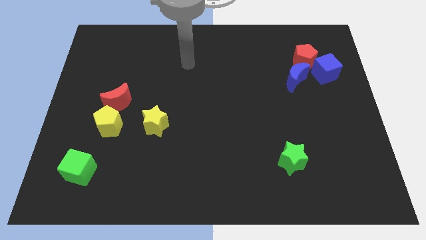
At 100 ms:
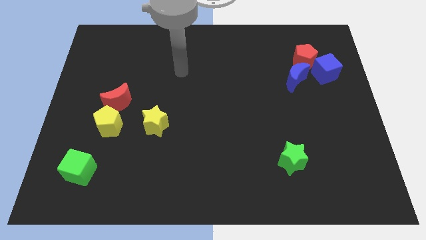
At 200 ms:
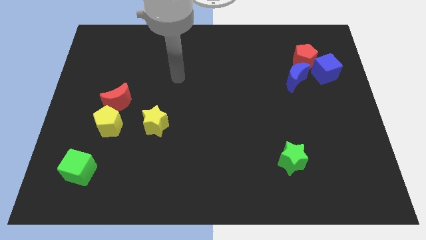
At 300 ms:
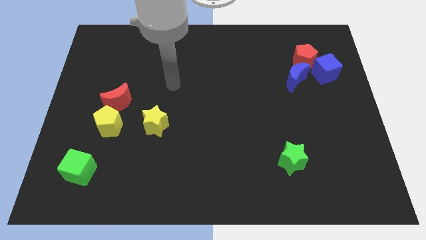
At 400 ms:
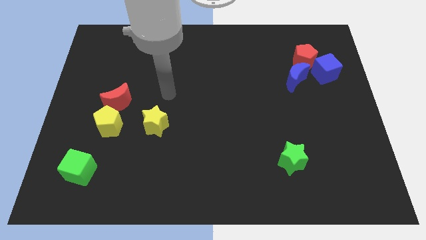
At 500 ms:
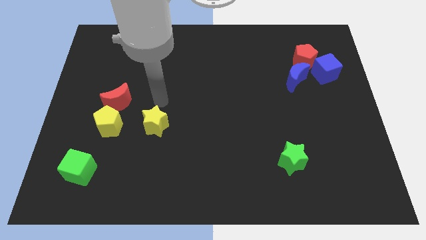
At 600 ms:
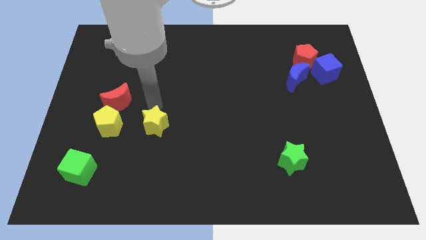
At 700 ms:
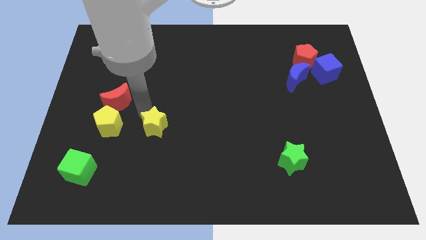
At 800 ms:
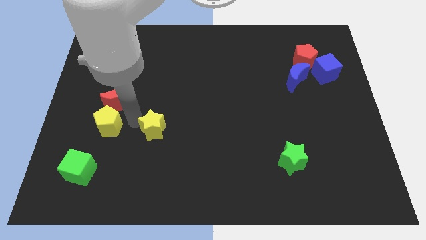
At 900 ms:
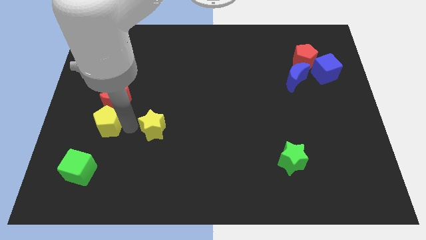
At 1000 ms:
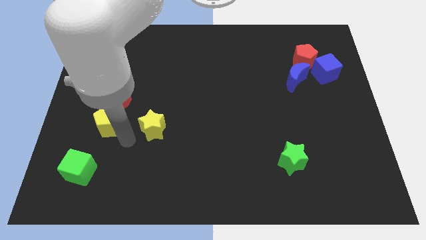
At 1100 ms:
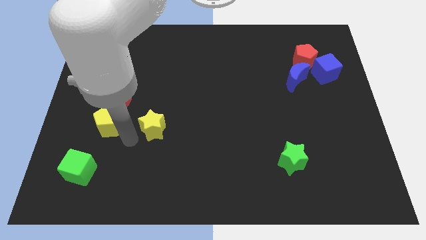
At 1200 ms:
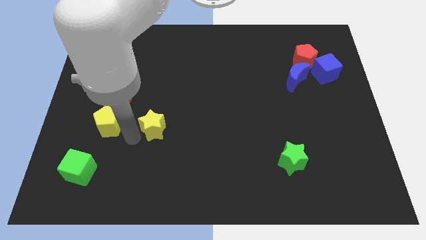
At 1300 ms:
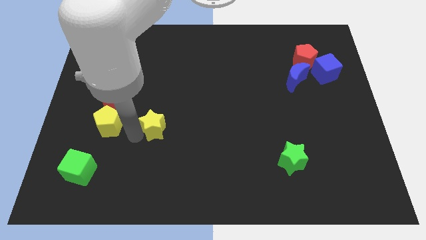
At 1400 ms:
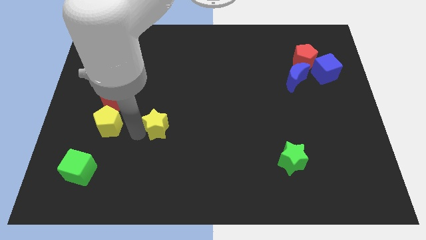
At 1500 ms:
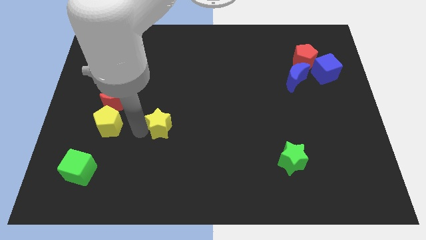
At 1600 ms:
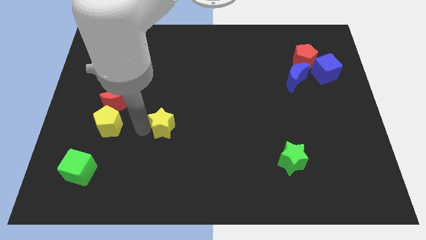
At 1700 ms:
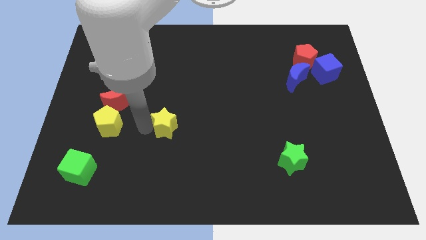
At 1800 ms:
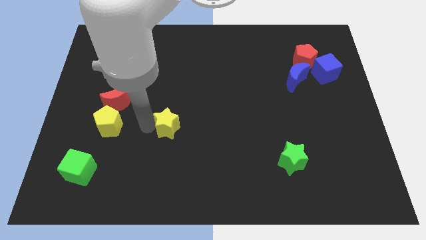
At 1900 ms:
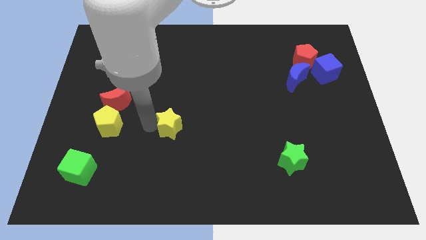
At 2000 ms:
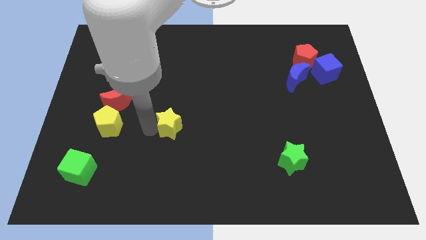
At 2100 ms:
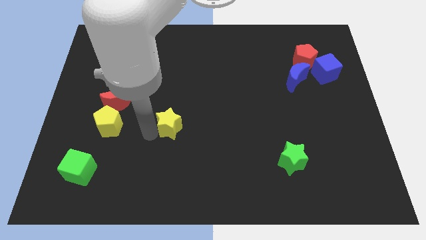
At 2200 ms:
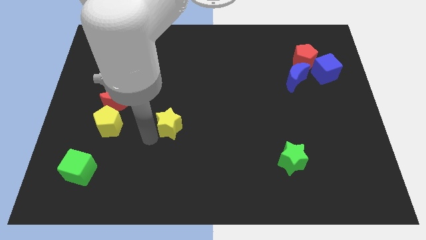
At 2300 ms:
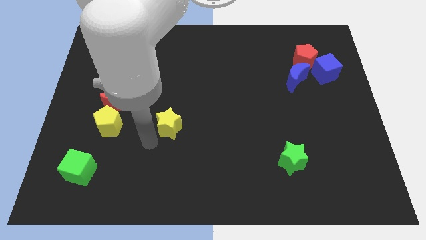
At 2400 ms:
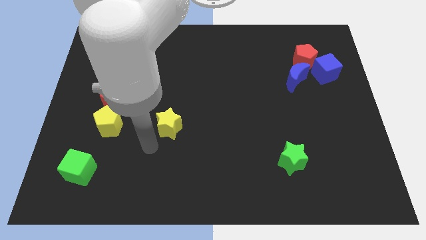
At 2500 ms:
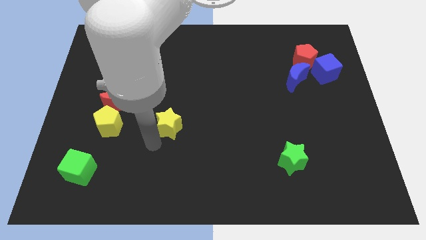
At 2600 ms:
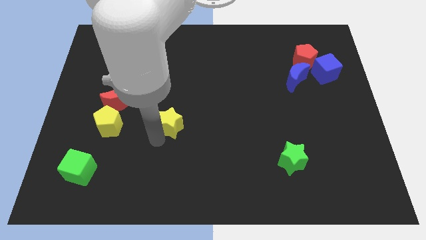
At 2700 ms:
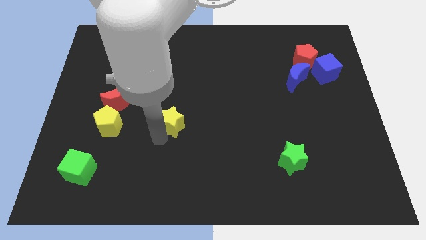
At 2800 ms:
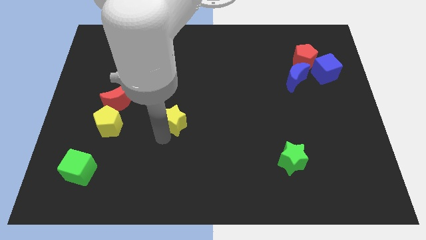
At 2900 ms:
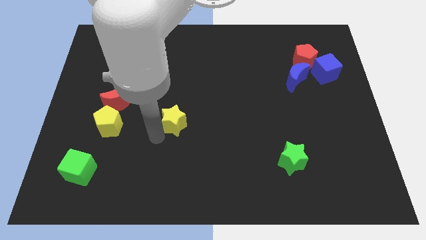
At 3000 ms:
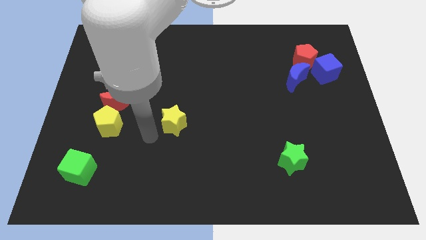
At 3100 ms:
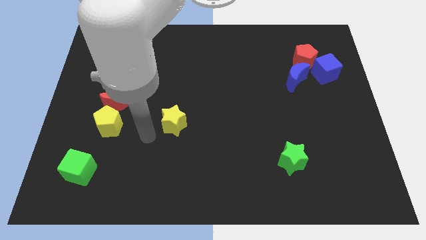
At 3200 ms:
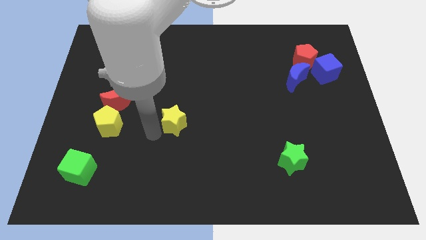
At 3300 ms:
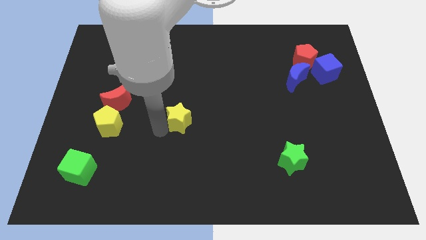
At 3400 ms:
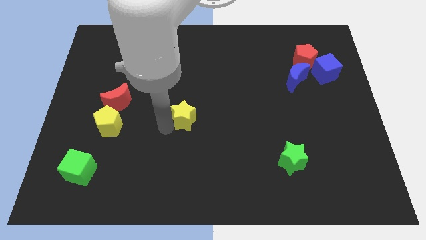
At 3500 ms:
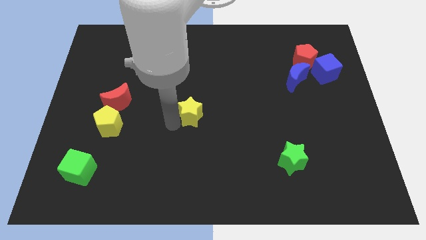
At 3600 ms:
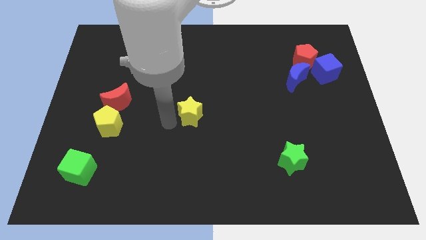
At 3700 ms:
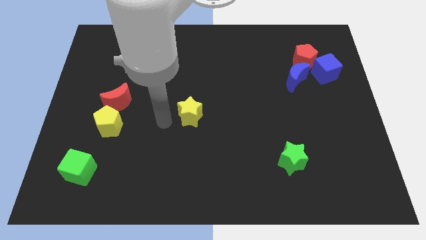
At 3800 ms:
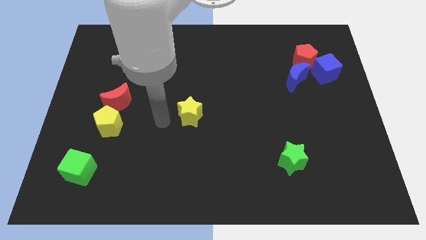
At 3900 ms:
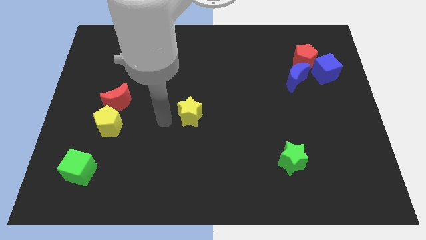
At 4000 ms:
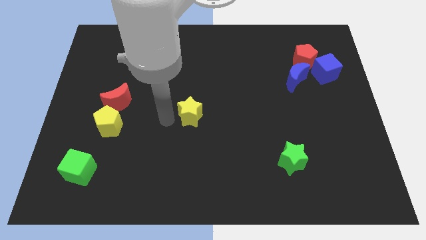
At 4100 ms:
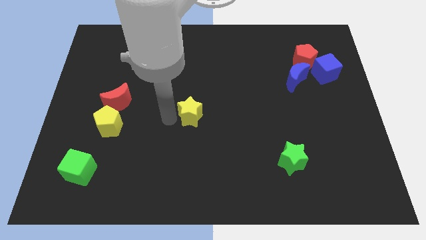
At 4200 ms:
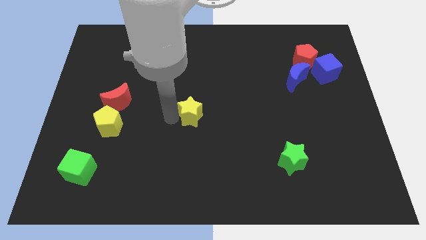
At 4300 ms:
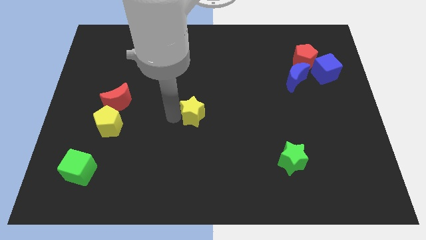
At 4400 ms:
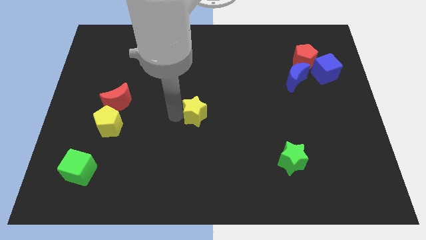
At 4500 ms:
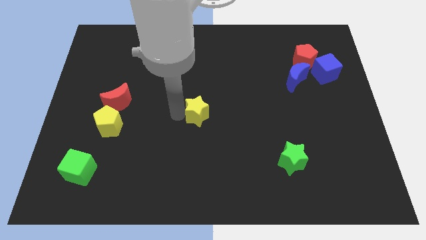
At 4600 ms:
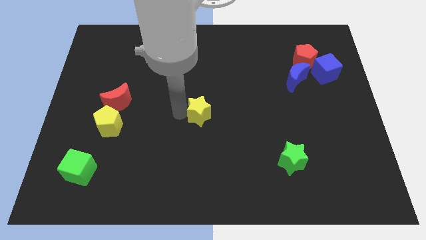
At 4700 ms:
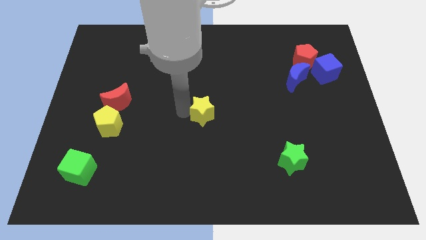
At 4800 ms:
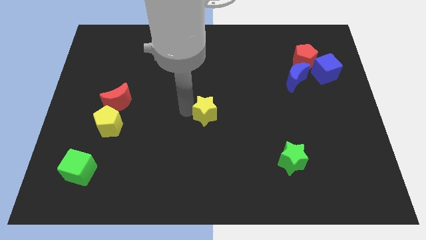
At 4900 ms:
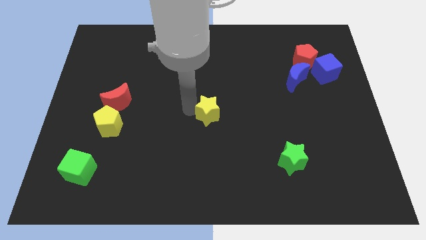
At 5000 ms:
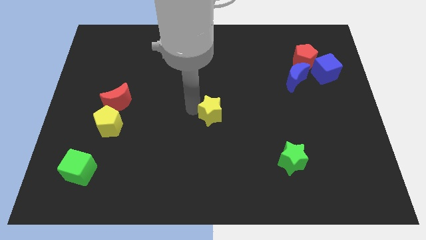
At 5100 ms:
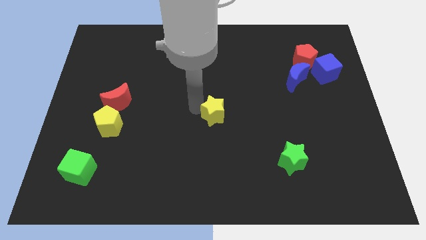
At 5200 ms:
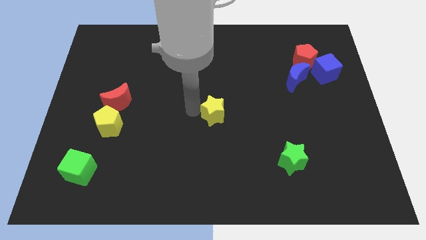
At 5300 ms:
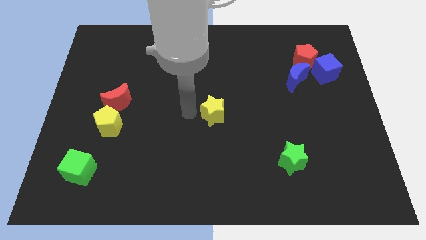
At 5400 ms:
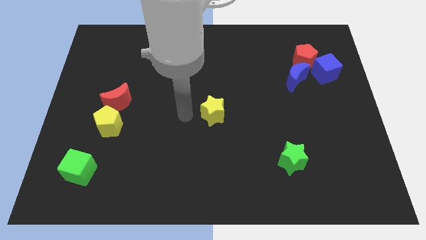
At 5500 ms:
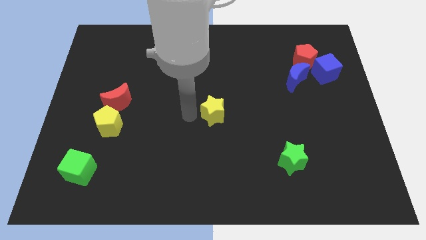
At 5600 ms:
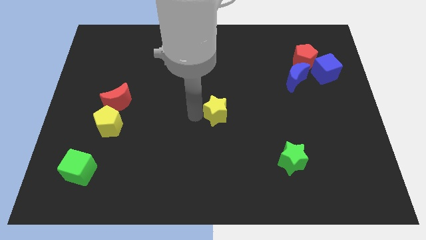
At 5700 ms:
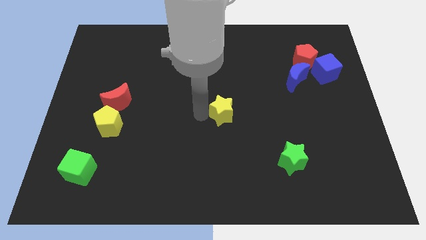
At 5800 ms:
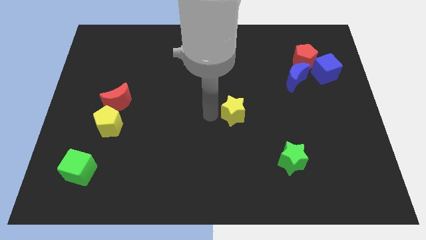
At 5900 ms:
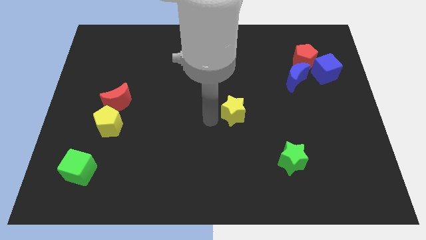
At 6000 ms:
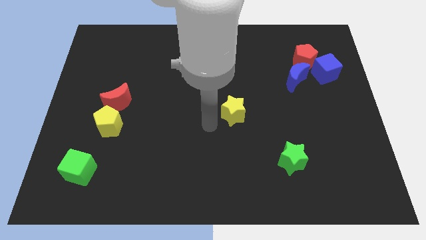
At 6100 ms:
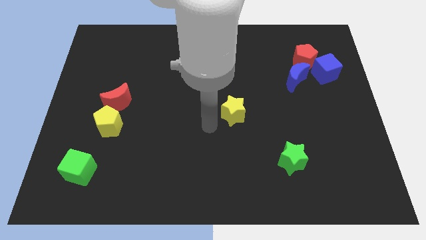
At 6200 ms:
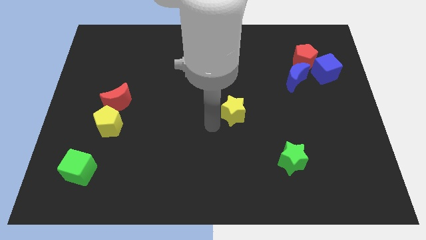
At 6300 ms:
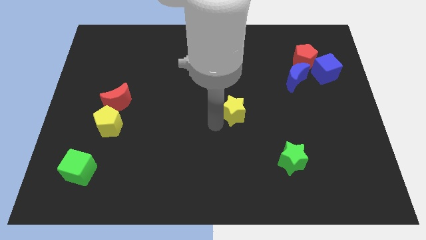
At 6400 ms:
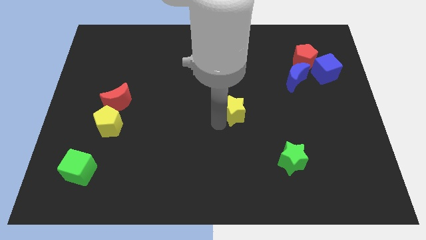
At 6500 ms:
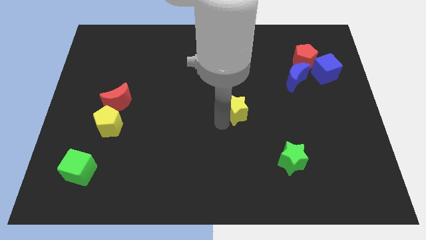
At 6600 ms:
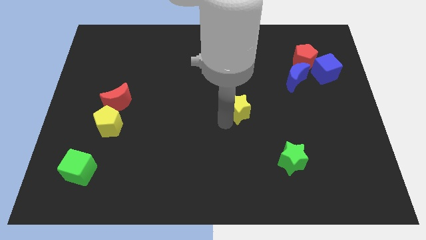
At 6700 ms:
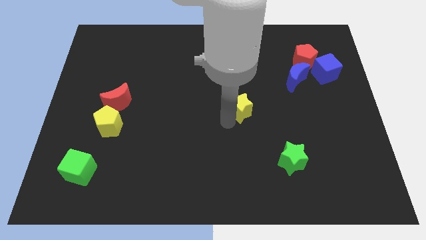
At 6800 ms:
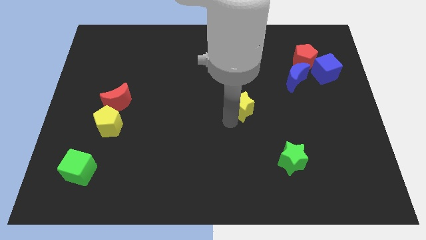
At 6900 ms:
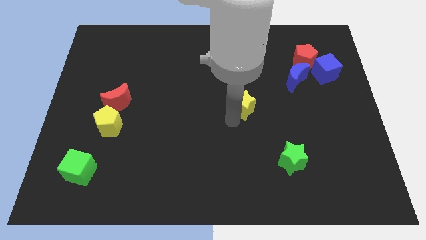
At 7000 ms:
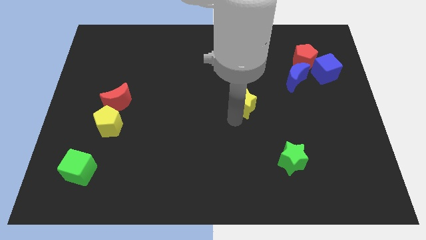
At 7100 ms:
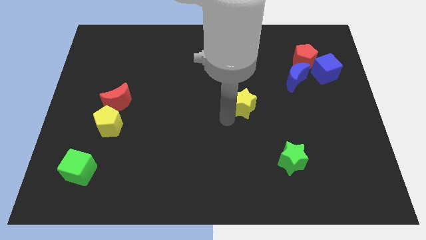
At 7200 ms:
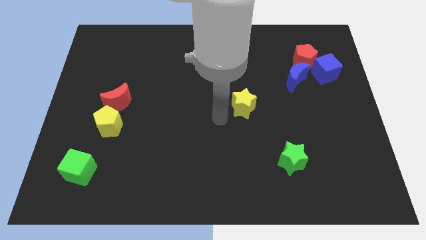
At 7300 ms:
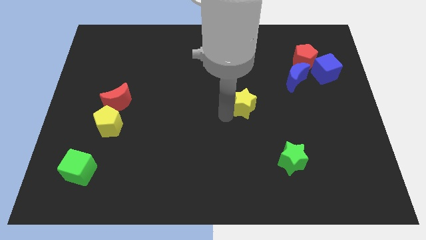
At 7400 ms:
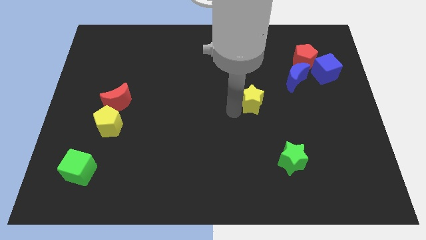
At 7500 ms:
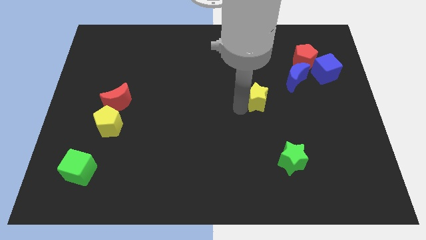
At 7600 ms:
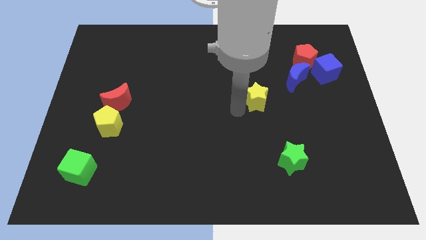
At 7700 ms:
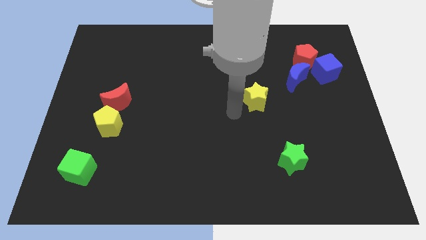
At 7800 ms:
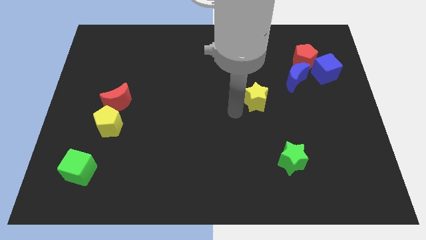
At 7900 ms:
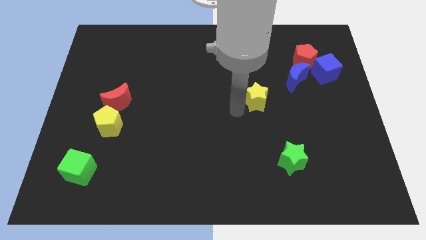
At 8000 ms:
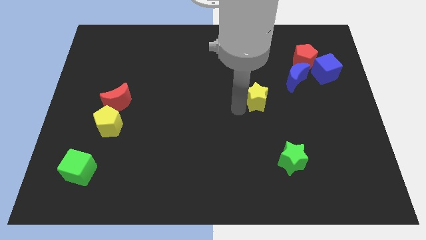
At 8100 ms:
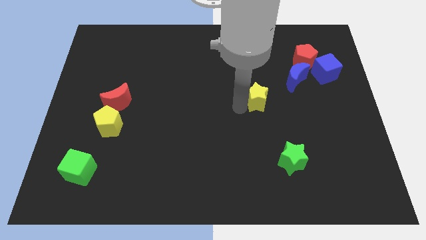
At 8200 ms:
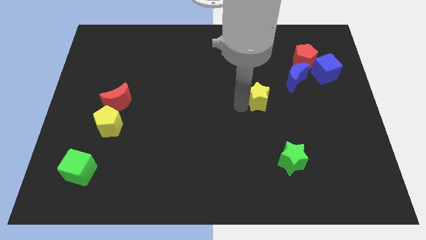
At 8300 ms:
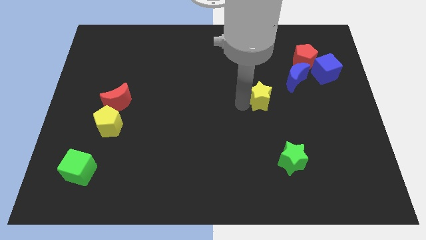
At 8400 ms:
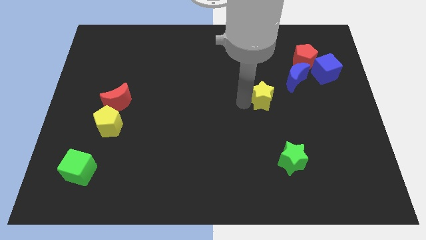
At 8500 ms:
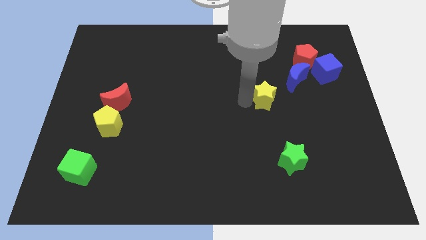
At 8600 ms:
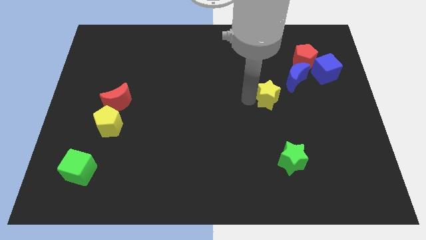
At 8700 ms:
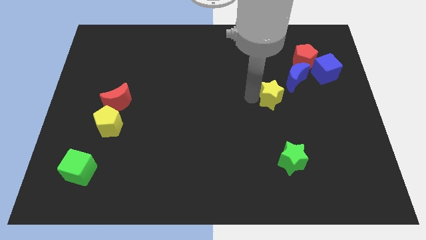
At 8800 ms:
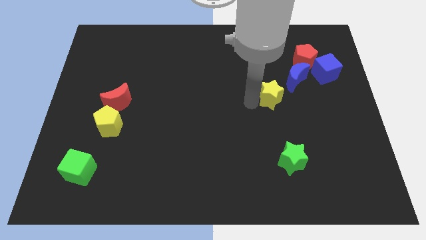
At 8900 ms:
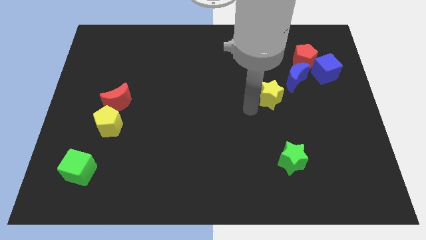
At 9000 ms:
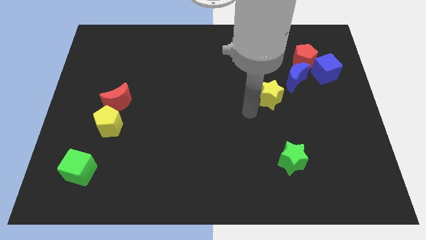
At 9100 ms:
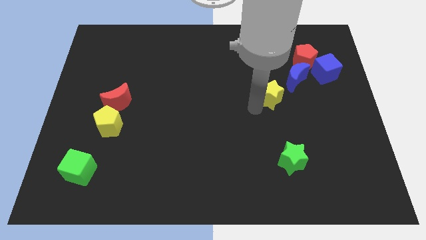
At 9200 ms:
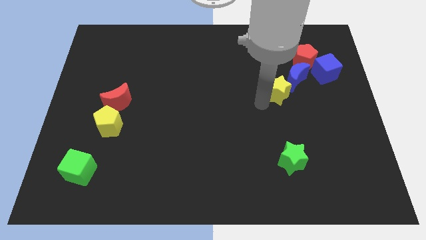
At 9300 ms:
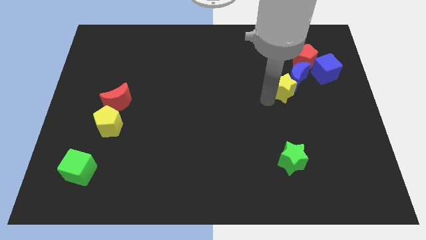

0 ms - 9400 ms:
push the yellow star towards the blue moon
